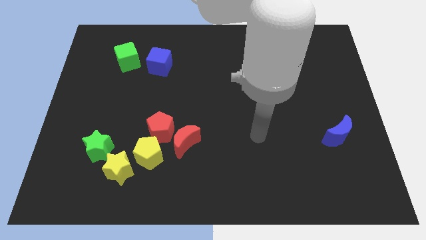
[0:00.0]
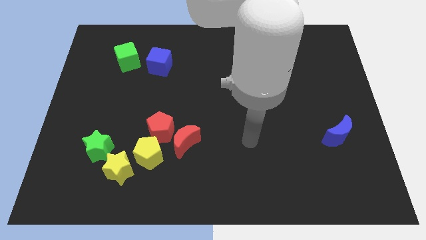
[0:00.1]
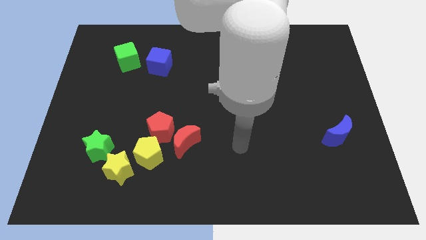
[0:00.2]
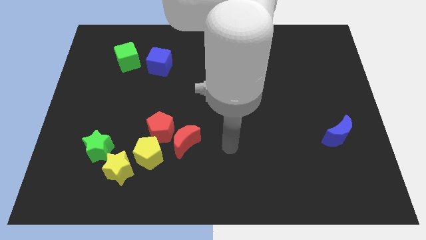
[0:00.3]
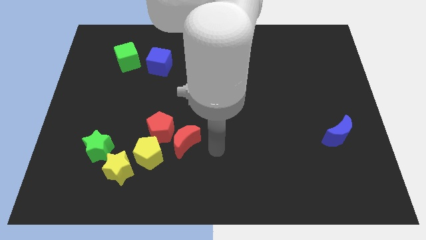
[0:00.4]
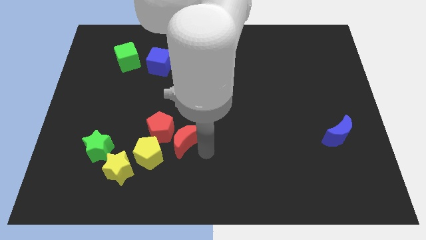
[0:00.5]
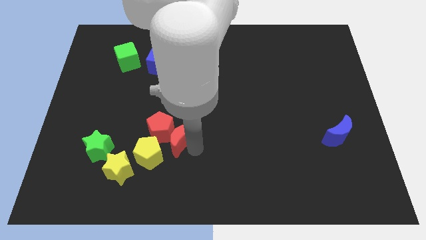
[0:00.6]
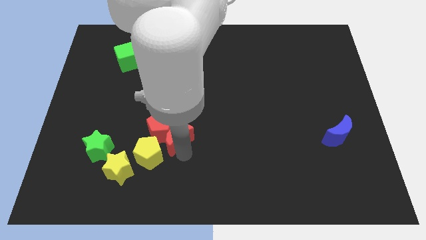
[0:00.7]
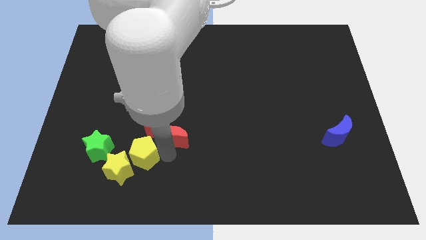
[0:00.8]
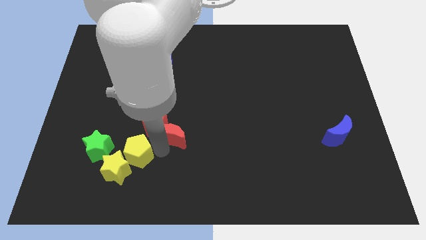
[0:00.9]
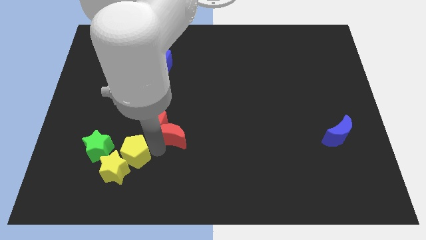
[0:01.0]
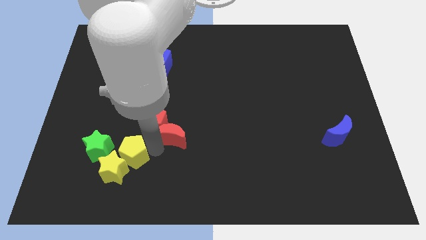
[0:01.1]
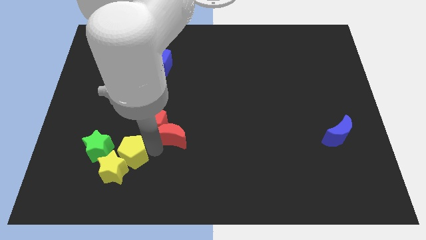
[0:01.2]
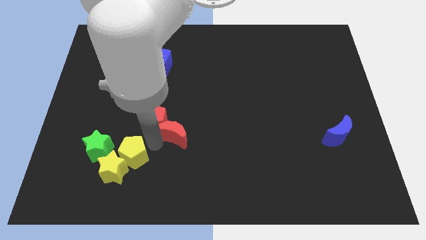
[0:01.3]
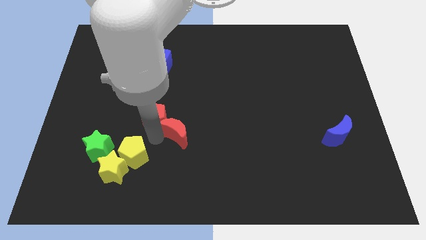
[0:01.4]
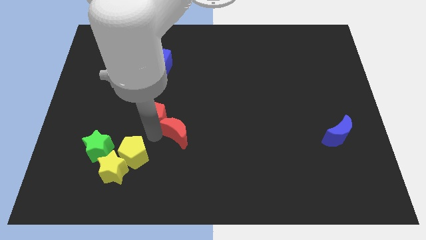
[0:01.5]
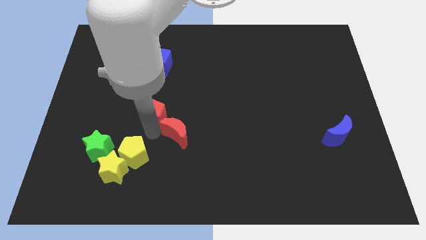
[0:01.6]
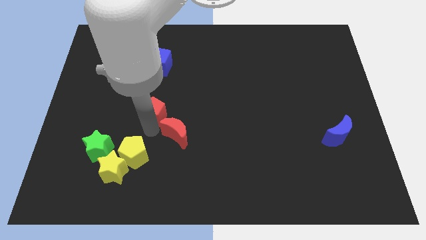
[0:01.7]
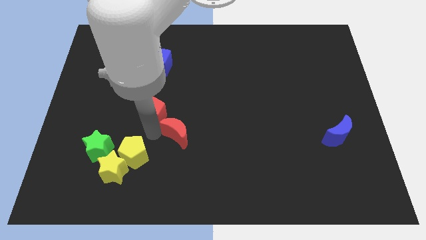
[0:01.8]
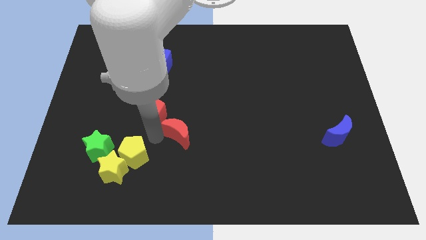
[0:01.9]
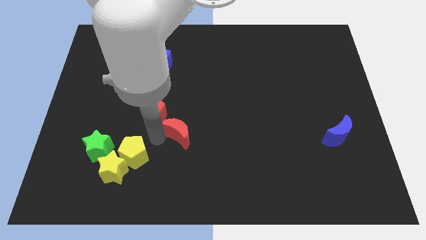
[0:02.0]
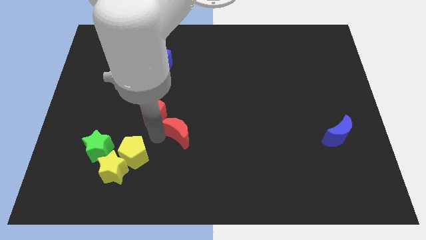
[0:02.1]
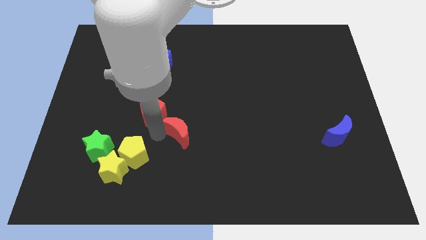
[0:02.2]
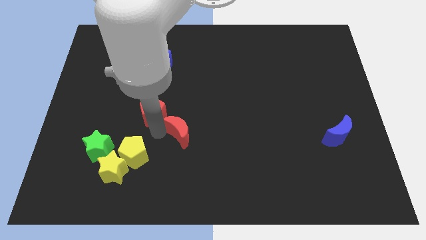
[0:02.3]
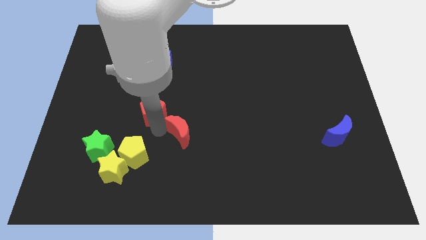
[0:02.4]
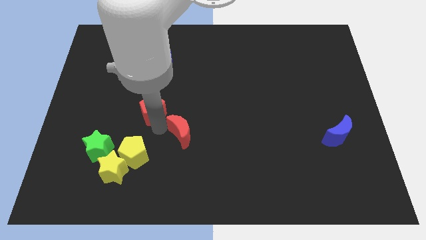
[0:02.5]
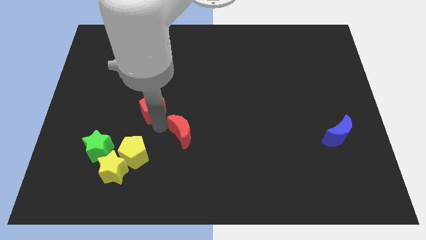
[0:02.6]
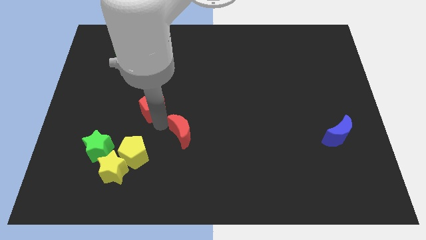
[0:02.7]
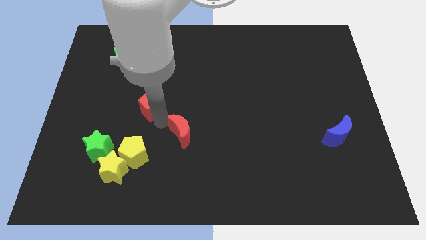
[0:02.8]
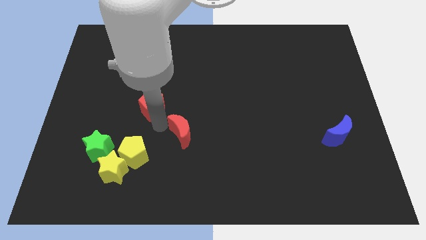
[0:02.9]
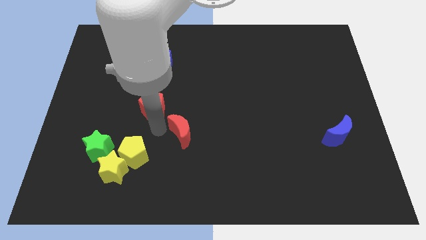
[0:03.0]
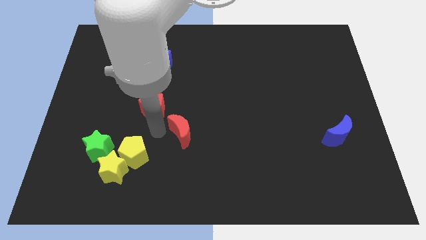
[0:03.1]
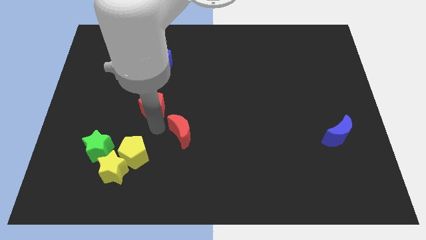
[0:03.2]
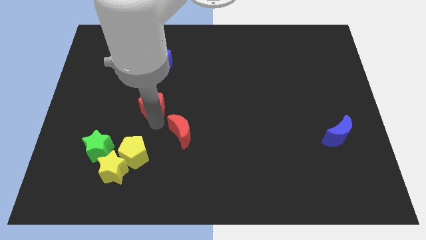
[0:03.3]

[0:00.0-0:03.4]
separate the red pentagon from the red moon and yellow pentagon

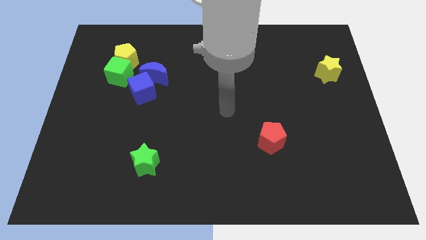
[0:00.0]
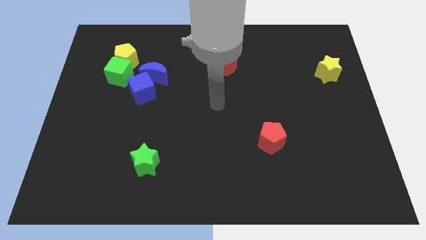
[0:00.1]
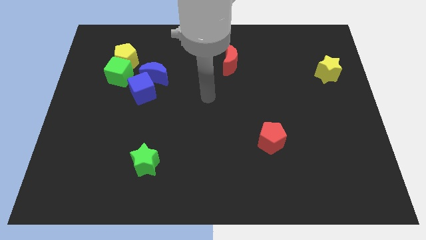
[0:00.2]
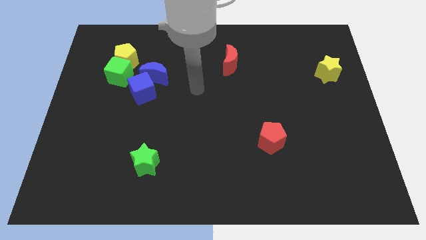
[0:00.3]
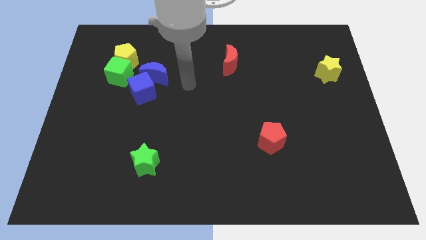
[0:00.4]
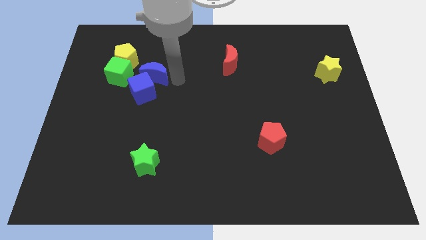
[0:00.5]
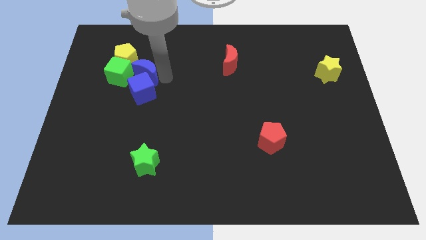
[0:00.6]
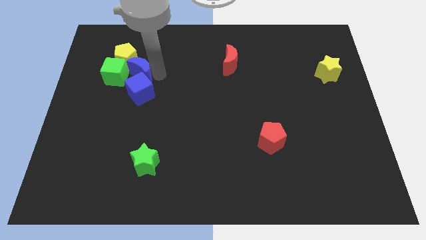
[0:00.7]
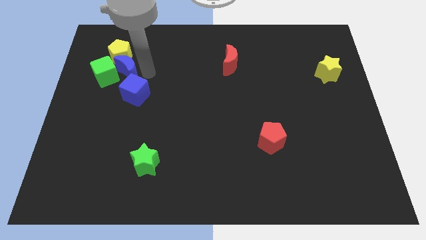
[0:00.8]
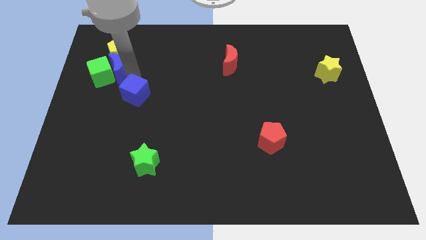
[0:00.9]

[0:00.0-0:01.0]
move the blue cube away from the blue moon and green cube

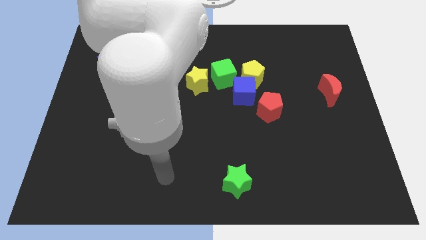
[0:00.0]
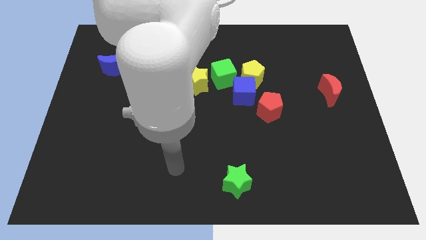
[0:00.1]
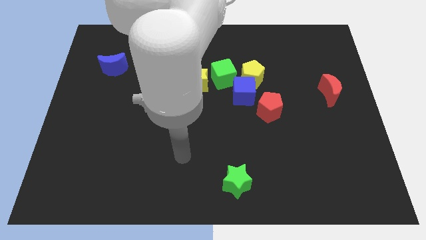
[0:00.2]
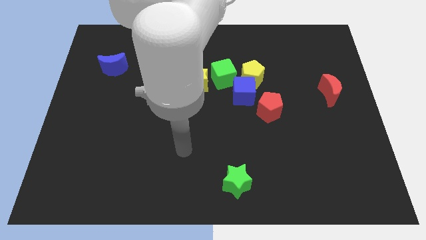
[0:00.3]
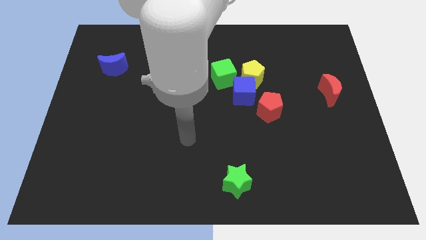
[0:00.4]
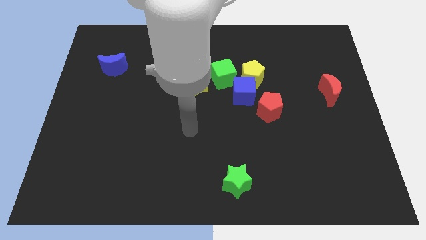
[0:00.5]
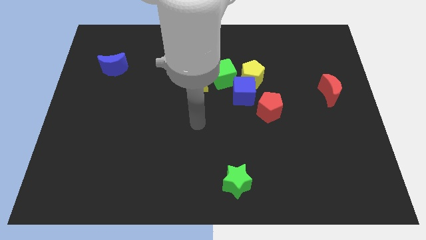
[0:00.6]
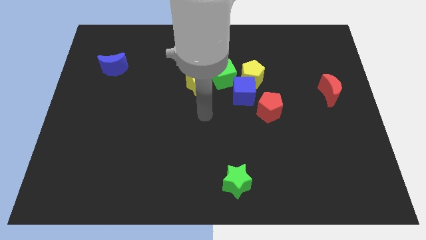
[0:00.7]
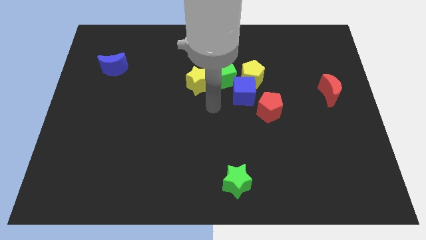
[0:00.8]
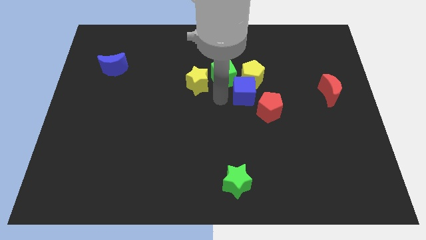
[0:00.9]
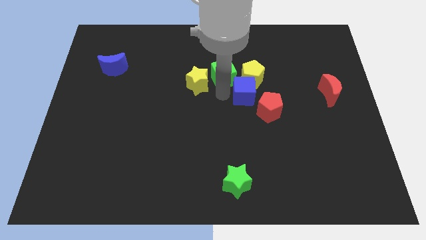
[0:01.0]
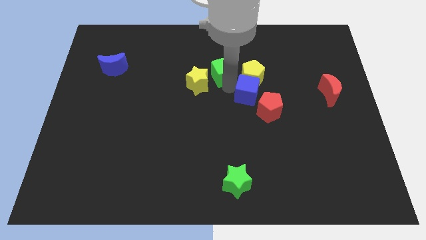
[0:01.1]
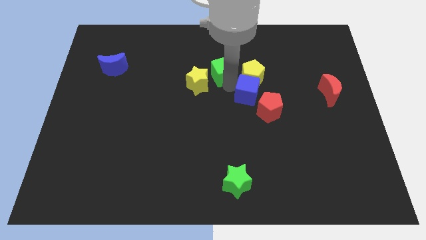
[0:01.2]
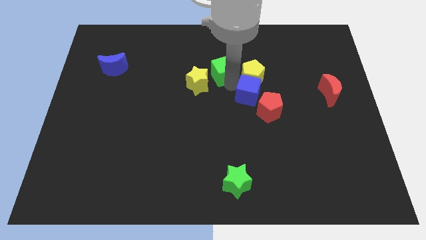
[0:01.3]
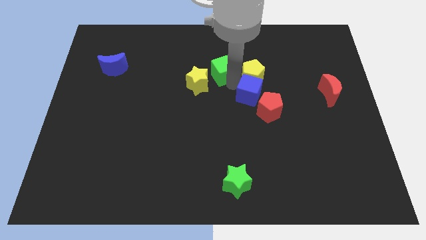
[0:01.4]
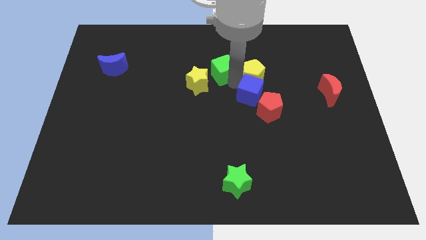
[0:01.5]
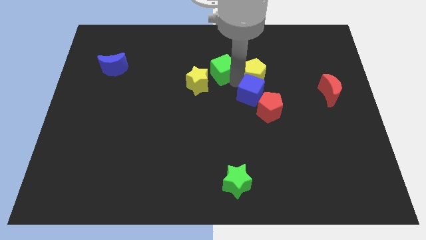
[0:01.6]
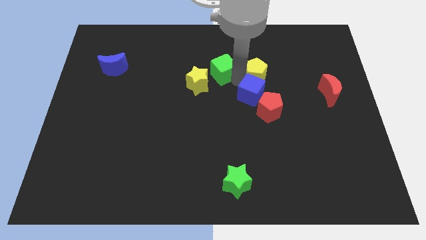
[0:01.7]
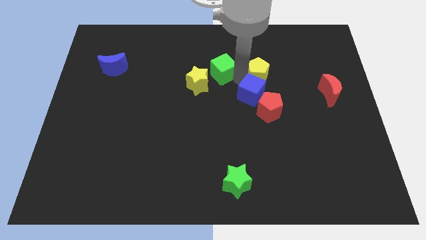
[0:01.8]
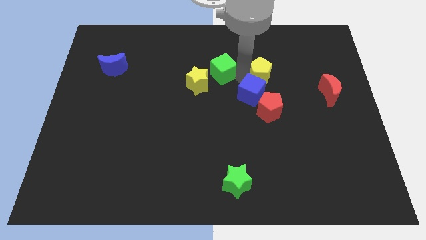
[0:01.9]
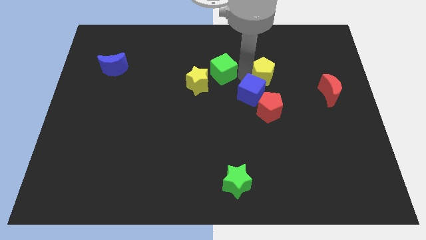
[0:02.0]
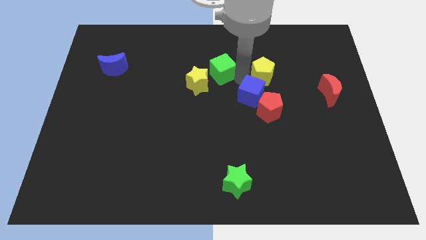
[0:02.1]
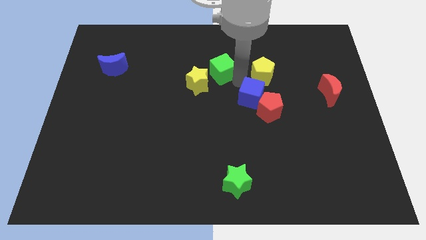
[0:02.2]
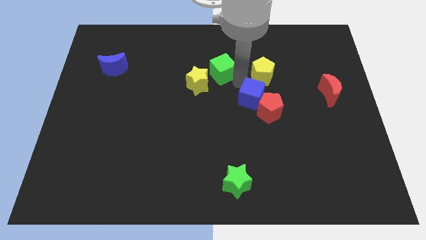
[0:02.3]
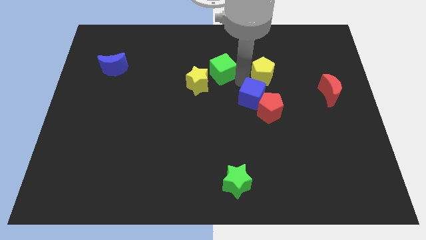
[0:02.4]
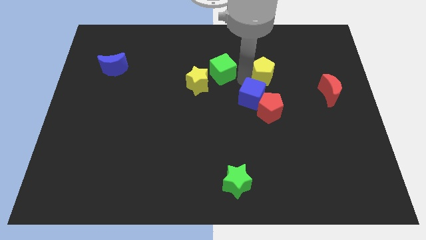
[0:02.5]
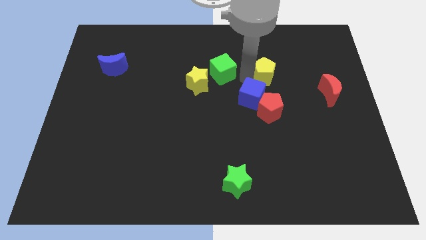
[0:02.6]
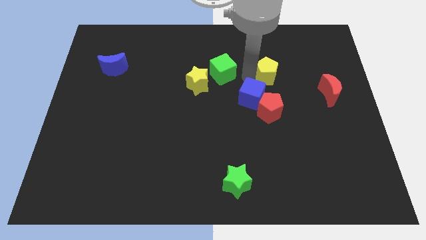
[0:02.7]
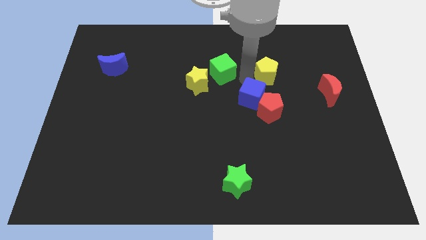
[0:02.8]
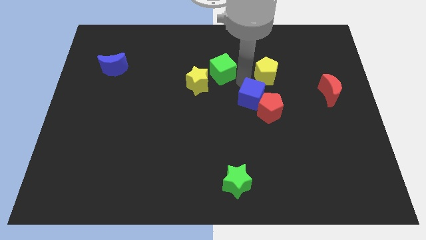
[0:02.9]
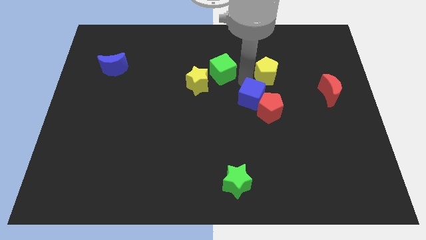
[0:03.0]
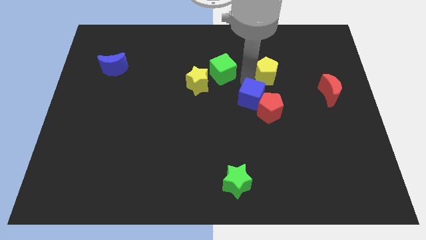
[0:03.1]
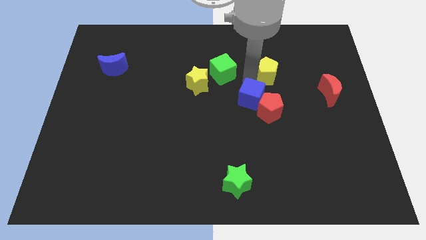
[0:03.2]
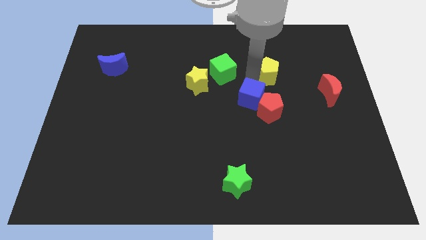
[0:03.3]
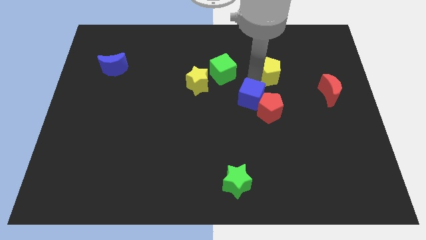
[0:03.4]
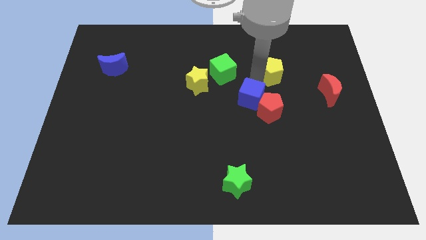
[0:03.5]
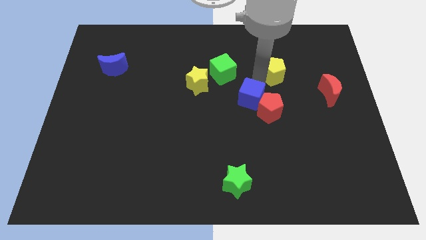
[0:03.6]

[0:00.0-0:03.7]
move the yellow pentagon away from the blue cube and green cube

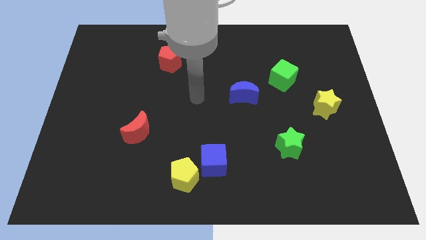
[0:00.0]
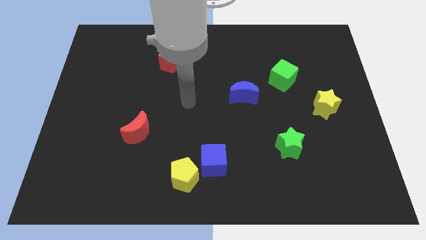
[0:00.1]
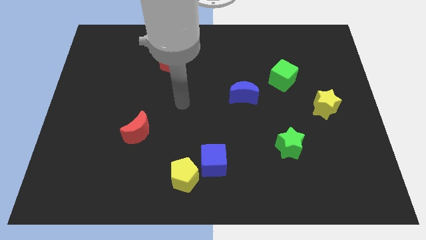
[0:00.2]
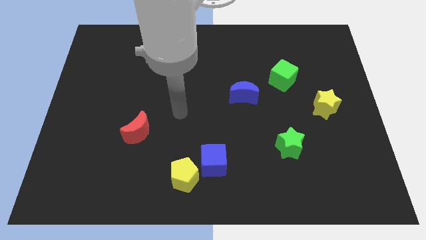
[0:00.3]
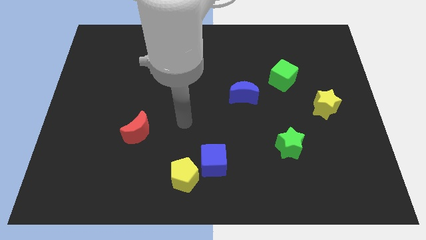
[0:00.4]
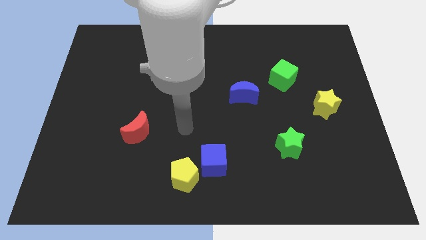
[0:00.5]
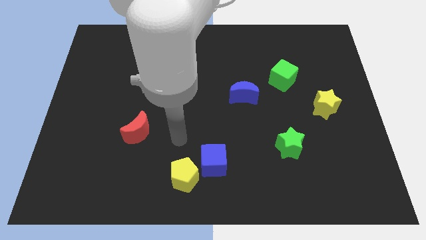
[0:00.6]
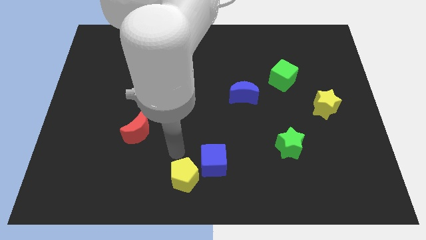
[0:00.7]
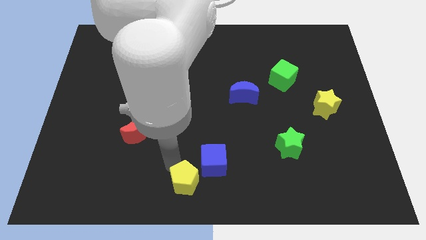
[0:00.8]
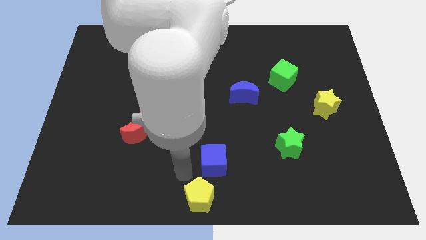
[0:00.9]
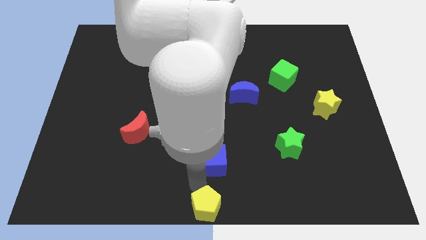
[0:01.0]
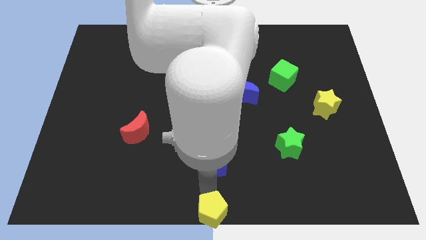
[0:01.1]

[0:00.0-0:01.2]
pull the blue cube apart from the yellow pentagon

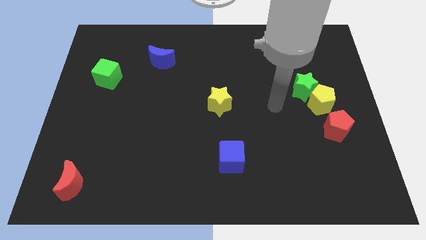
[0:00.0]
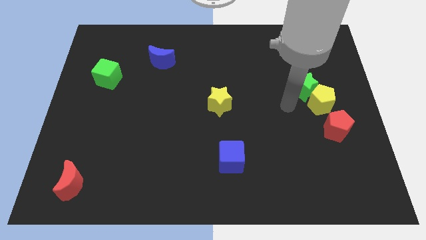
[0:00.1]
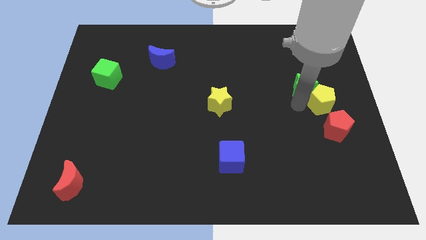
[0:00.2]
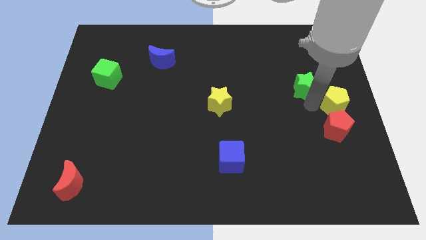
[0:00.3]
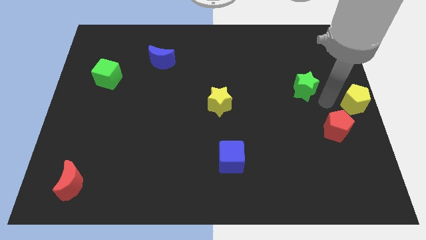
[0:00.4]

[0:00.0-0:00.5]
separate the green star from the yellow pentagon
